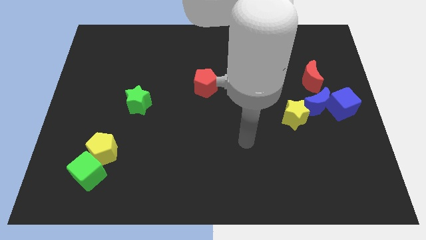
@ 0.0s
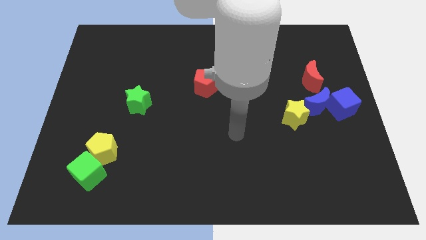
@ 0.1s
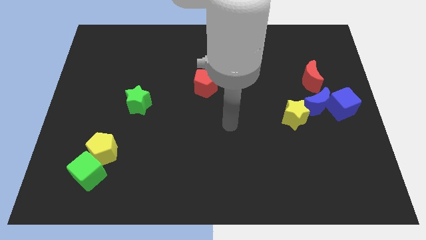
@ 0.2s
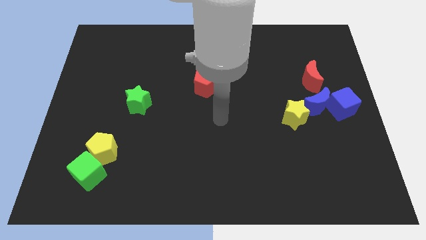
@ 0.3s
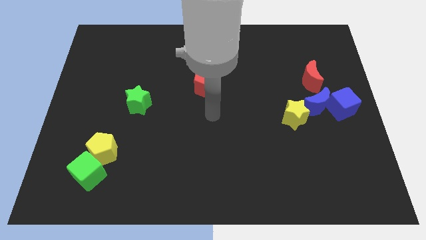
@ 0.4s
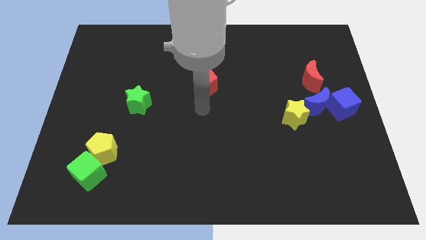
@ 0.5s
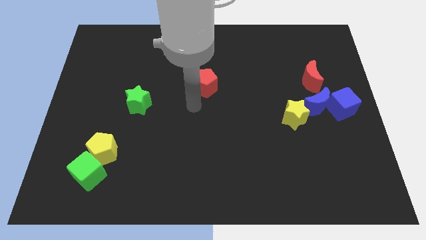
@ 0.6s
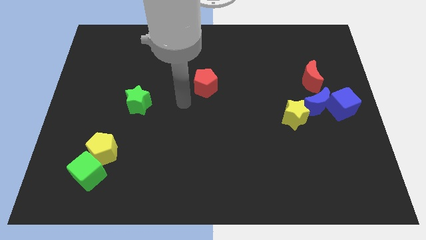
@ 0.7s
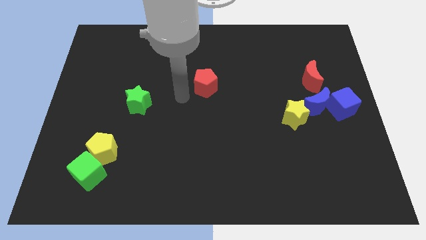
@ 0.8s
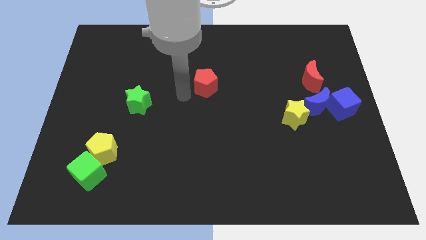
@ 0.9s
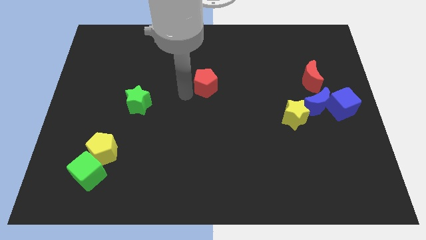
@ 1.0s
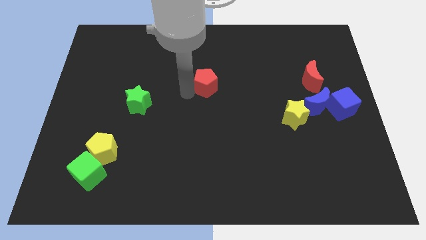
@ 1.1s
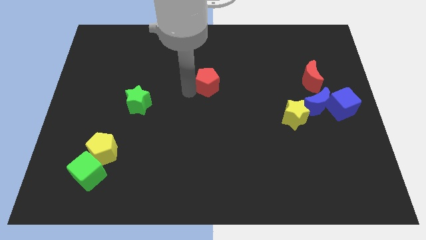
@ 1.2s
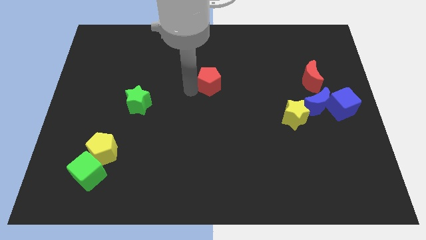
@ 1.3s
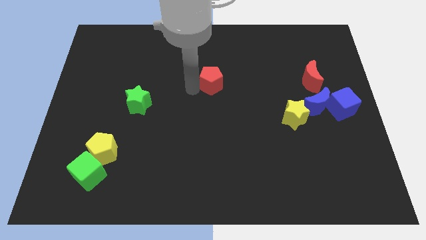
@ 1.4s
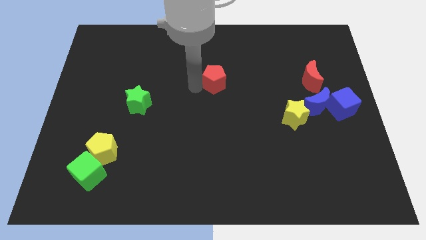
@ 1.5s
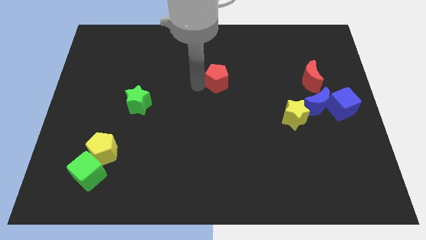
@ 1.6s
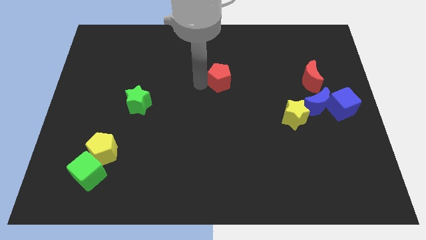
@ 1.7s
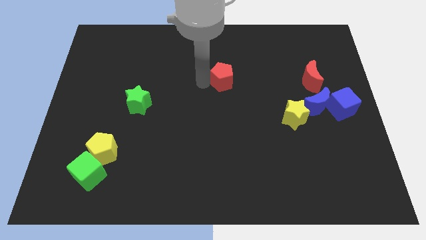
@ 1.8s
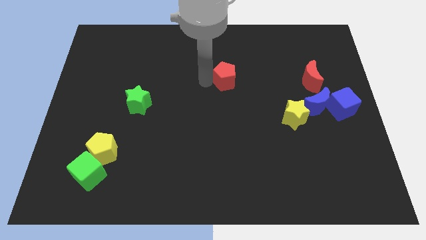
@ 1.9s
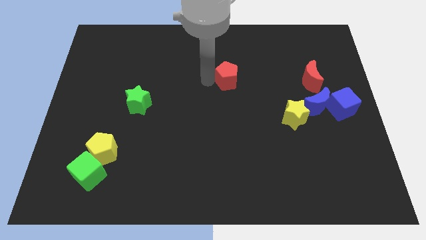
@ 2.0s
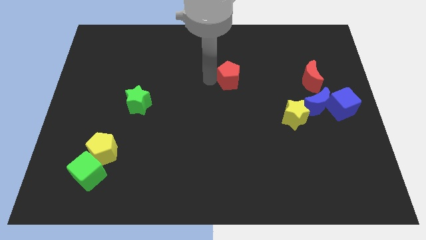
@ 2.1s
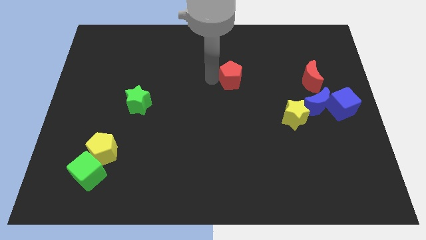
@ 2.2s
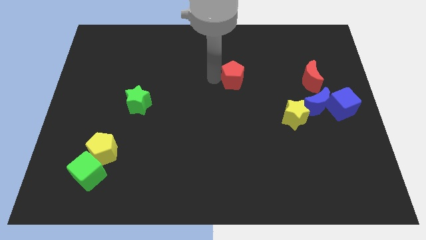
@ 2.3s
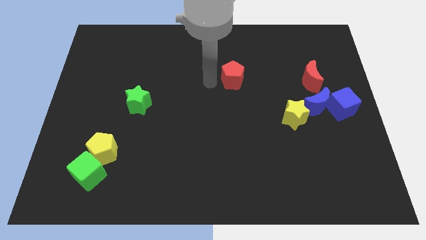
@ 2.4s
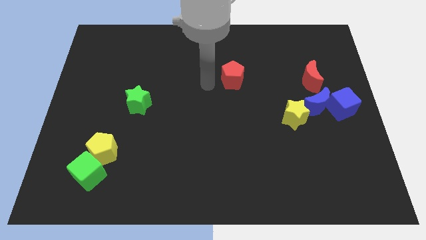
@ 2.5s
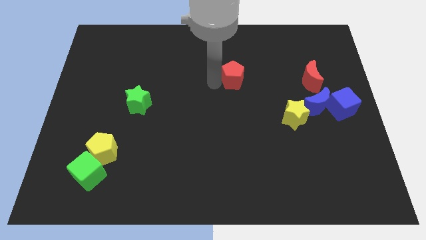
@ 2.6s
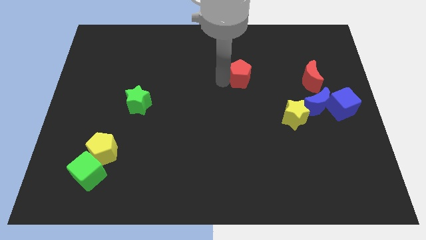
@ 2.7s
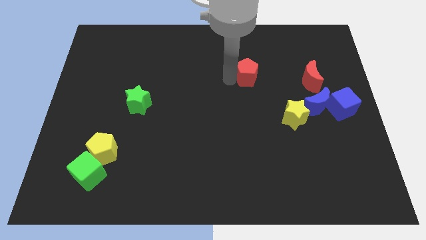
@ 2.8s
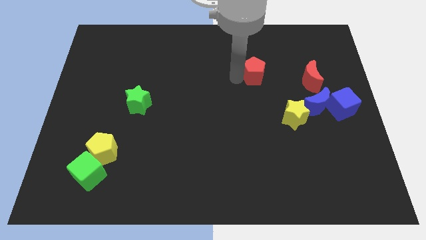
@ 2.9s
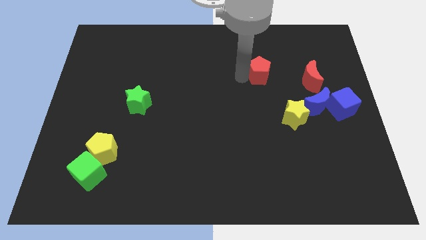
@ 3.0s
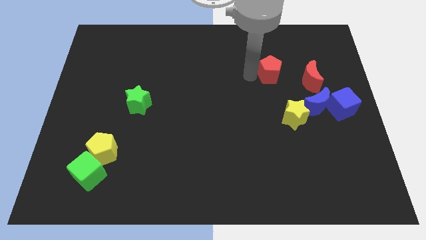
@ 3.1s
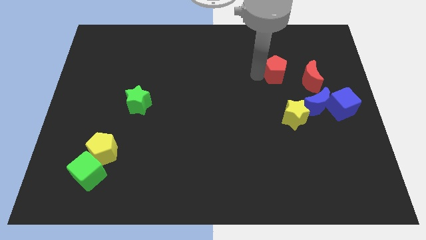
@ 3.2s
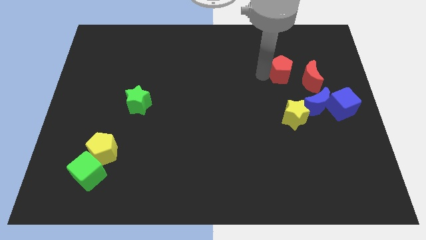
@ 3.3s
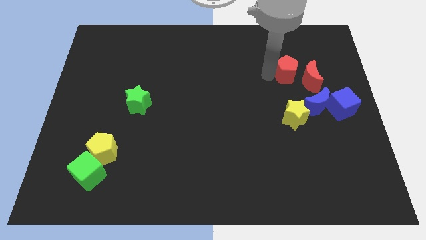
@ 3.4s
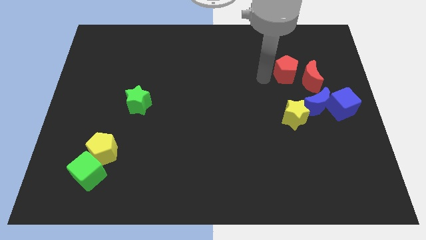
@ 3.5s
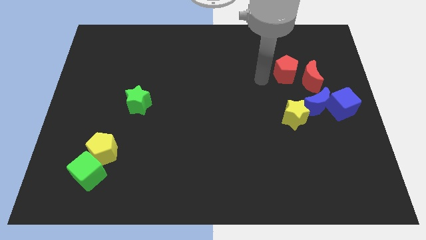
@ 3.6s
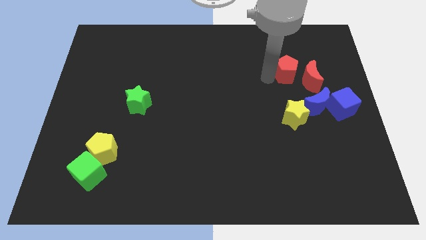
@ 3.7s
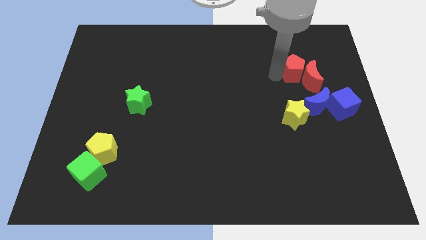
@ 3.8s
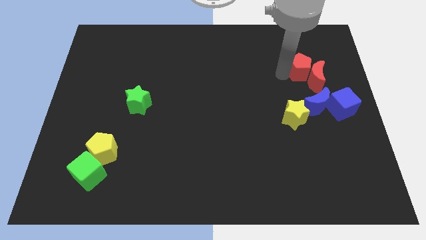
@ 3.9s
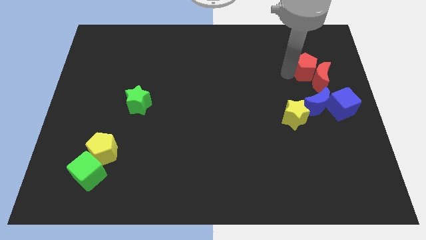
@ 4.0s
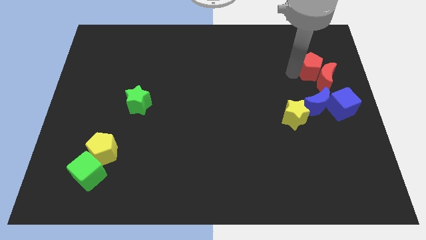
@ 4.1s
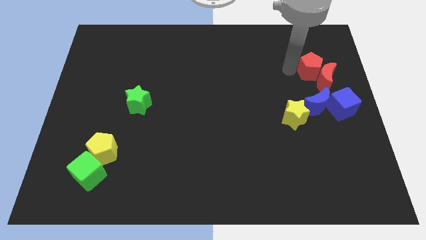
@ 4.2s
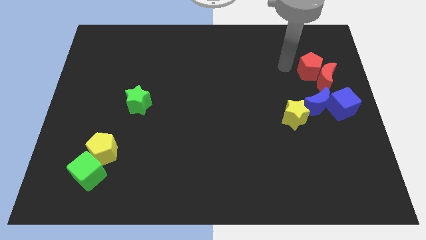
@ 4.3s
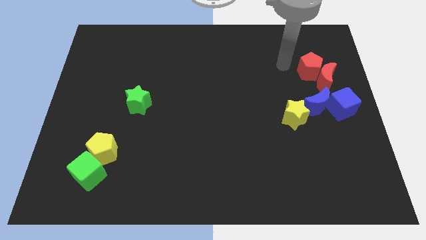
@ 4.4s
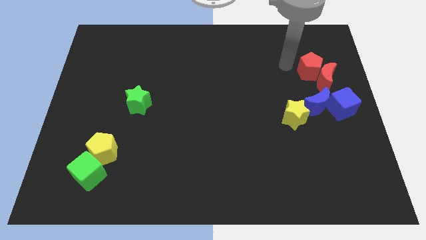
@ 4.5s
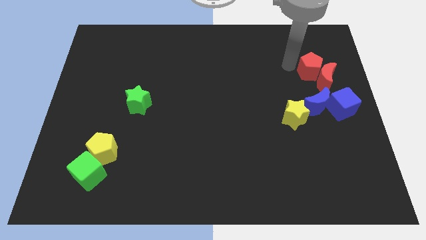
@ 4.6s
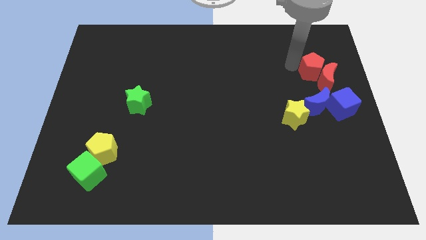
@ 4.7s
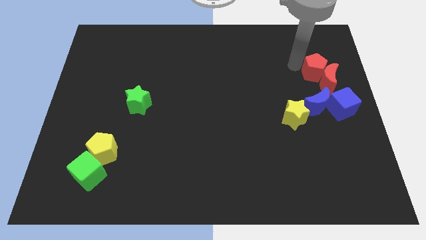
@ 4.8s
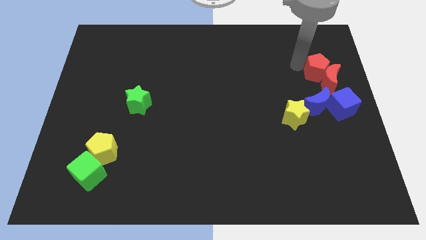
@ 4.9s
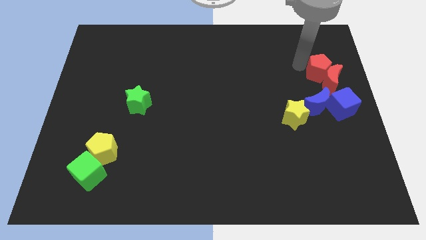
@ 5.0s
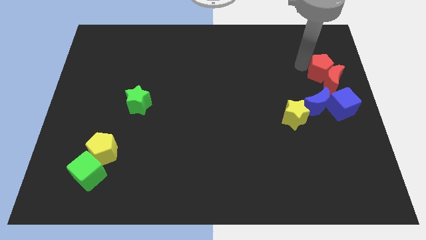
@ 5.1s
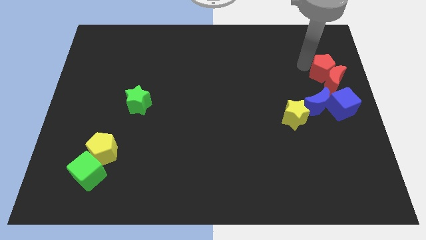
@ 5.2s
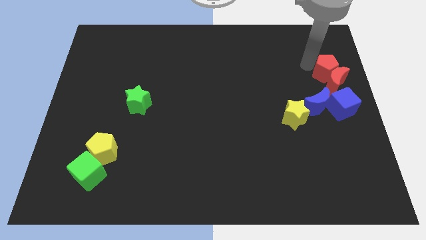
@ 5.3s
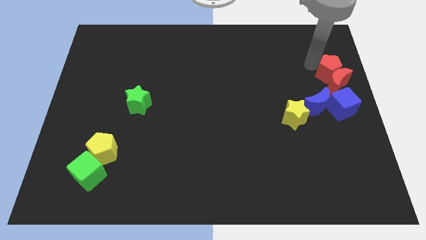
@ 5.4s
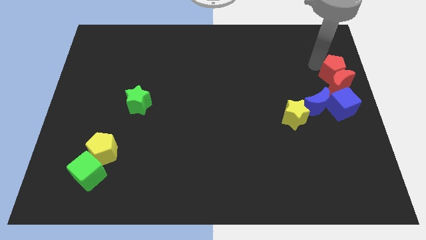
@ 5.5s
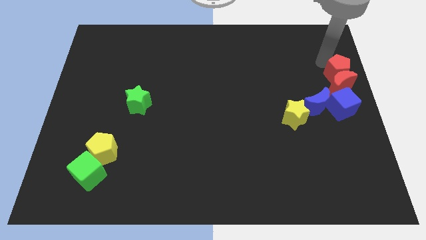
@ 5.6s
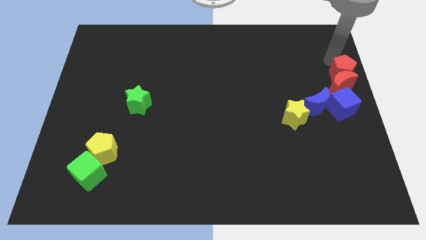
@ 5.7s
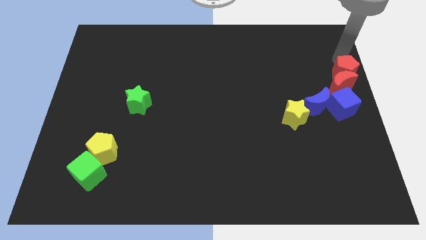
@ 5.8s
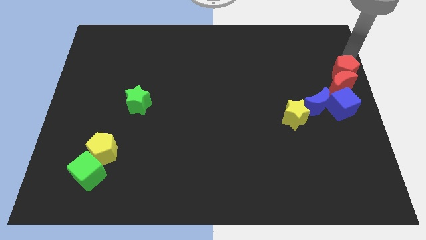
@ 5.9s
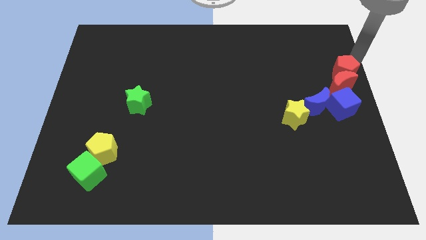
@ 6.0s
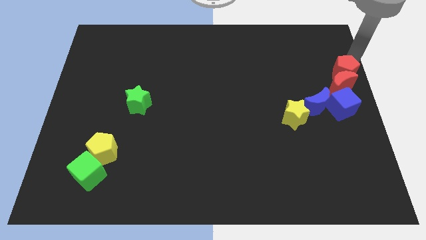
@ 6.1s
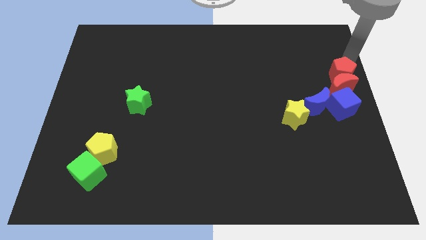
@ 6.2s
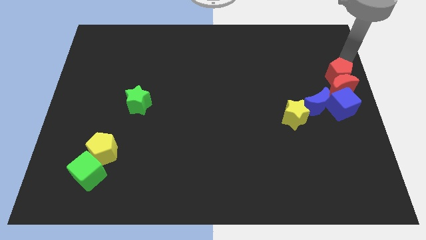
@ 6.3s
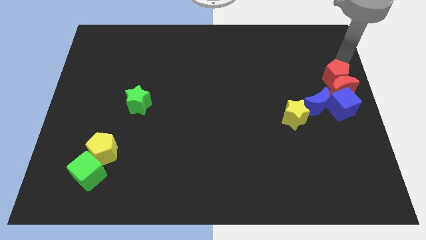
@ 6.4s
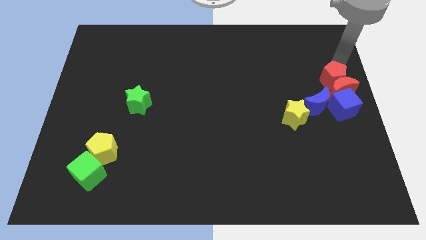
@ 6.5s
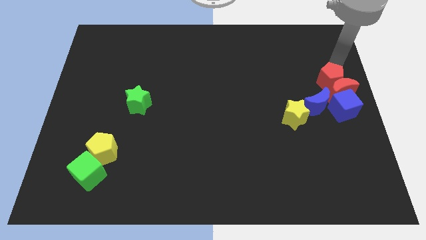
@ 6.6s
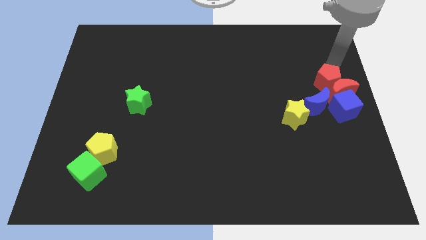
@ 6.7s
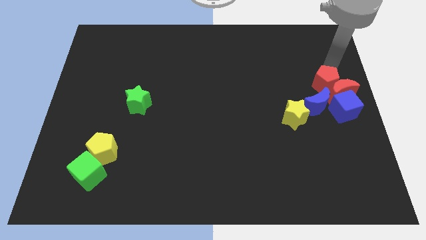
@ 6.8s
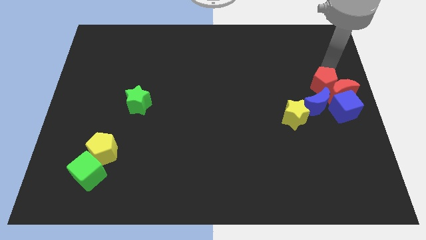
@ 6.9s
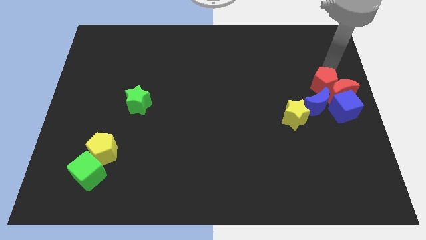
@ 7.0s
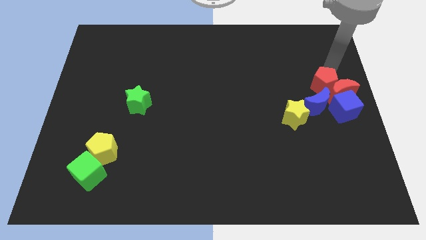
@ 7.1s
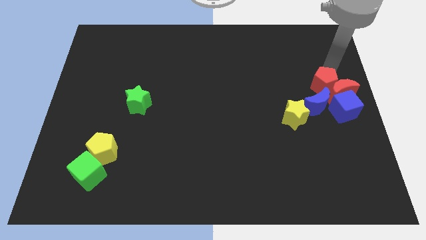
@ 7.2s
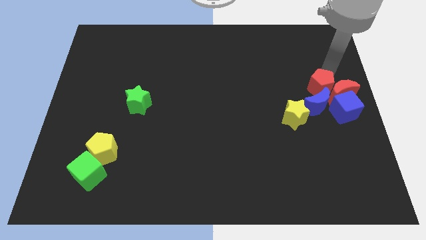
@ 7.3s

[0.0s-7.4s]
move the red pentagon to the top right side of the yellow star

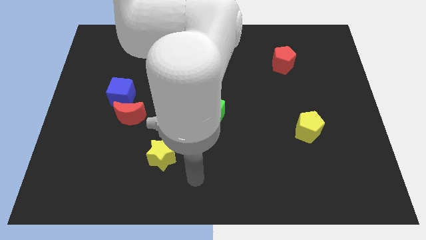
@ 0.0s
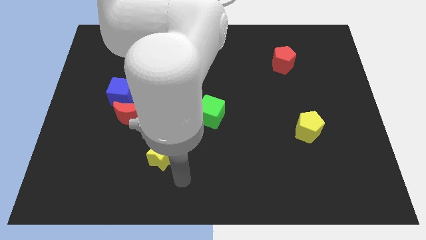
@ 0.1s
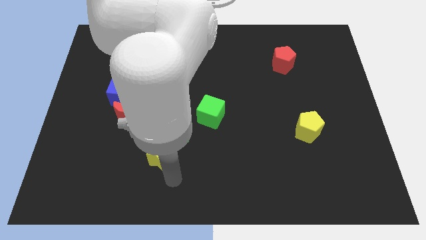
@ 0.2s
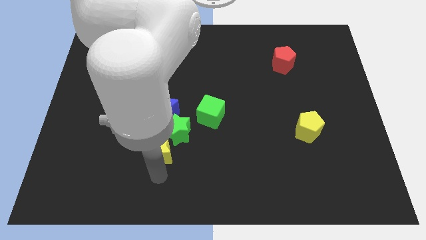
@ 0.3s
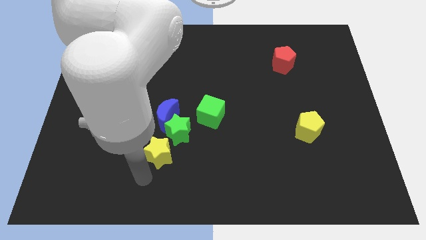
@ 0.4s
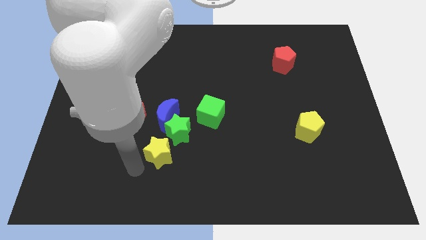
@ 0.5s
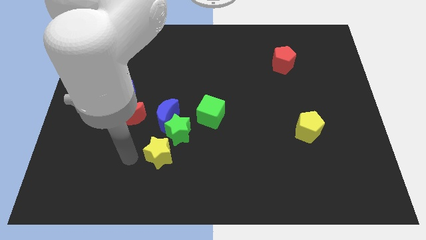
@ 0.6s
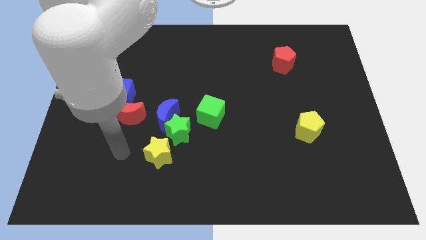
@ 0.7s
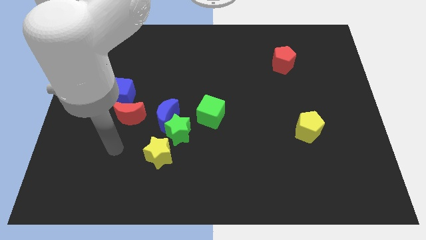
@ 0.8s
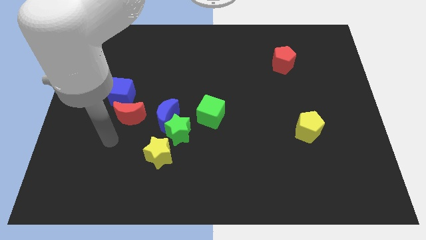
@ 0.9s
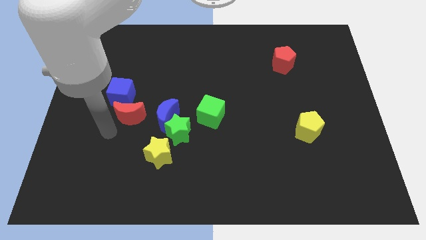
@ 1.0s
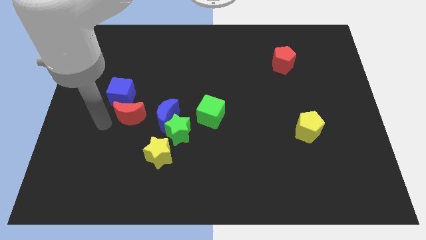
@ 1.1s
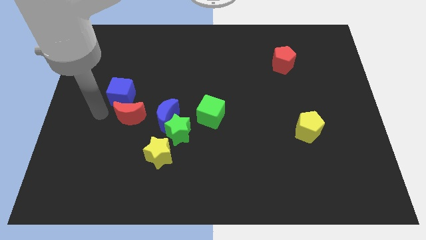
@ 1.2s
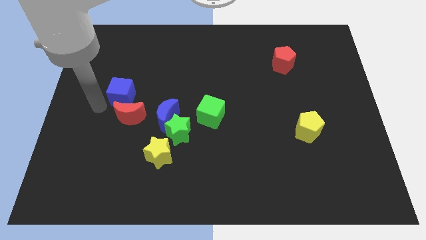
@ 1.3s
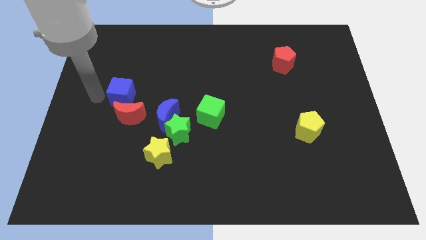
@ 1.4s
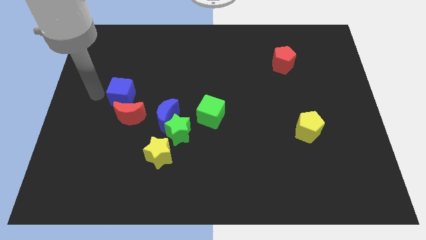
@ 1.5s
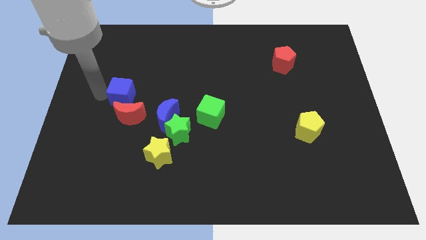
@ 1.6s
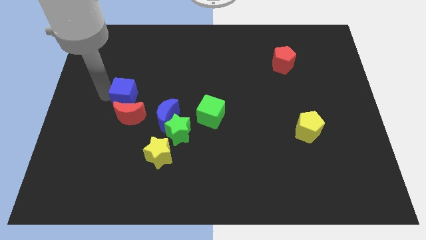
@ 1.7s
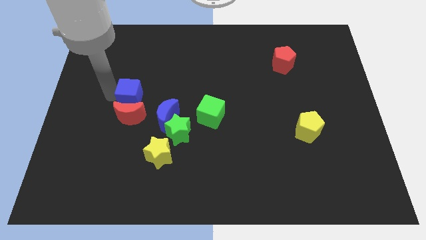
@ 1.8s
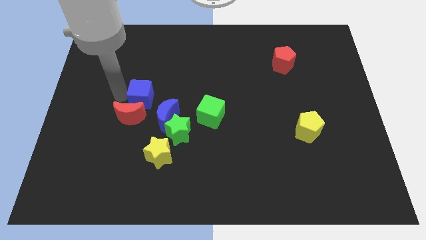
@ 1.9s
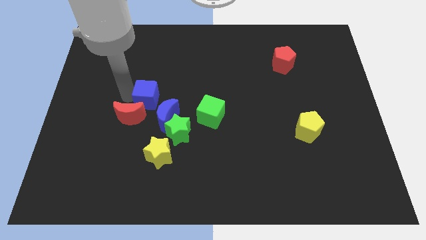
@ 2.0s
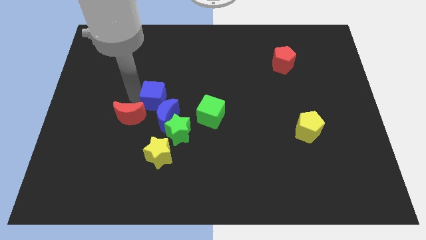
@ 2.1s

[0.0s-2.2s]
push the blue cube to the top of the yellow star
